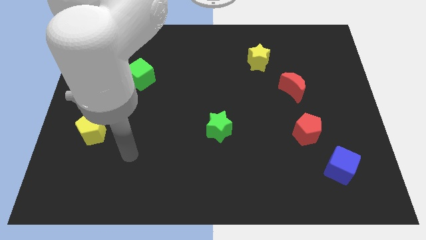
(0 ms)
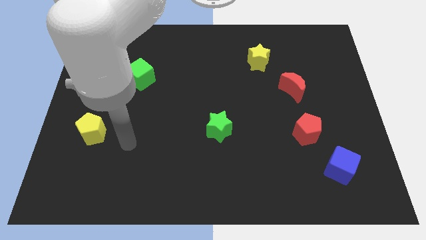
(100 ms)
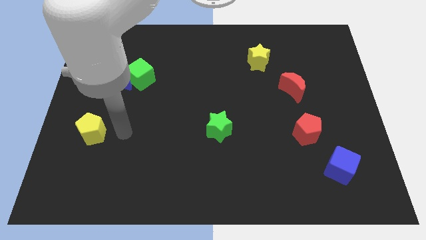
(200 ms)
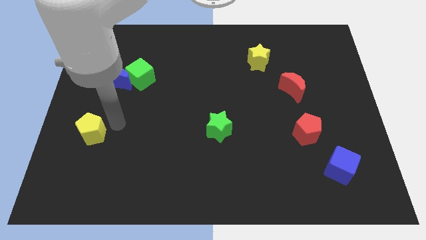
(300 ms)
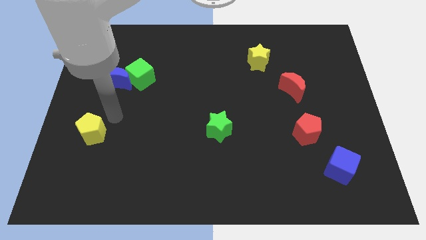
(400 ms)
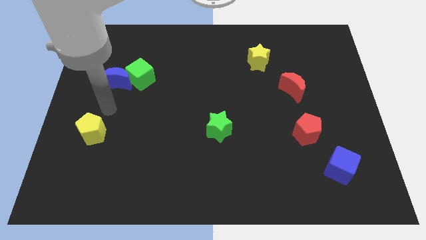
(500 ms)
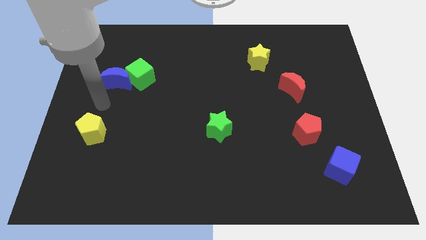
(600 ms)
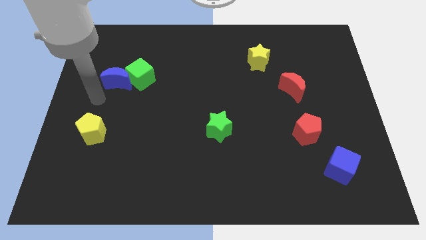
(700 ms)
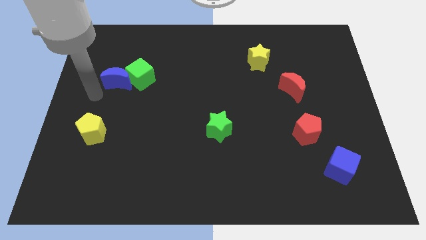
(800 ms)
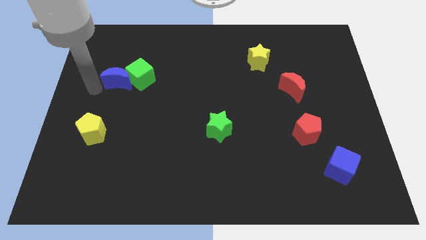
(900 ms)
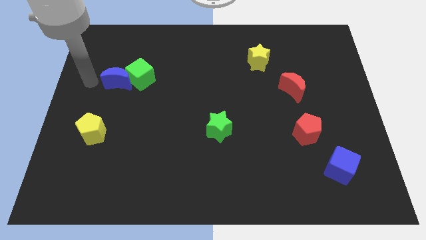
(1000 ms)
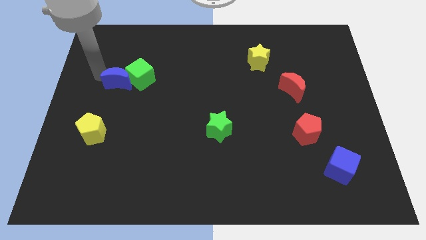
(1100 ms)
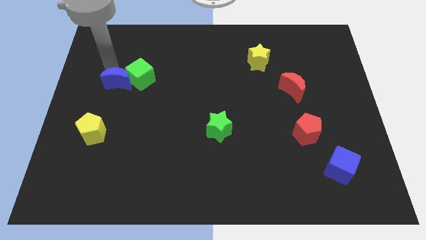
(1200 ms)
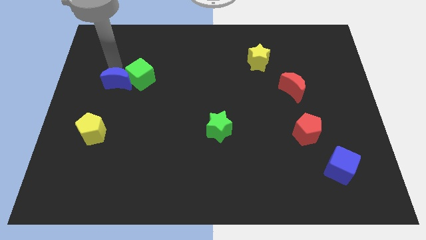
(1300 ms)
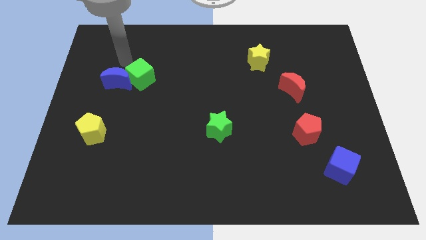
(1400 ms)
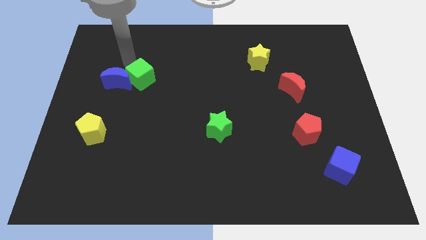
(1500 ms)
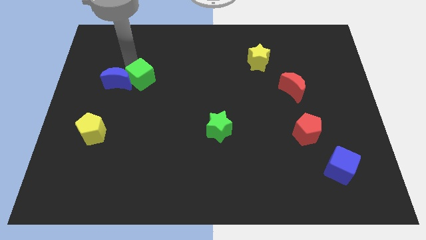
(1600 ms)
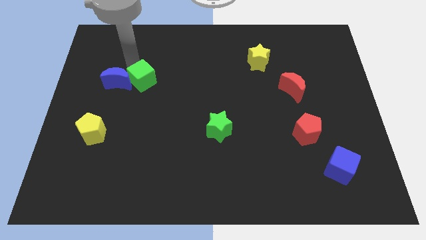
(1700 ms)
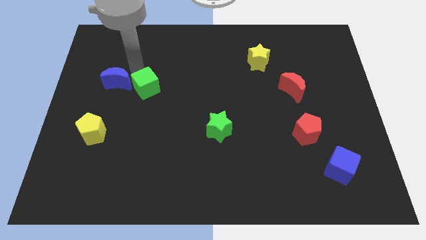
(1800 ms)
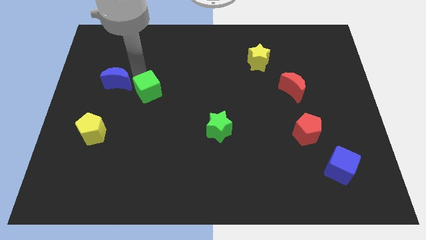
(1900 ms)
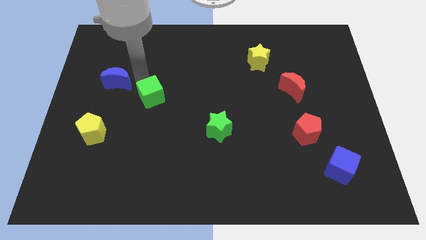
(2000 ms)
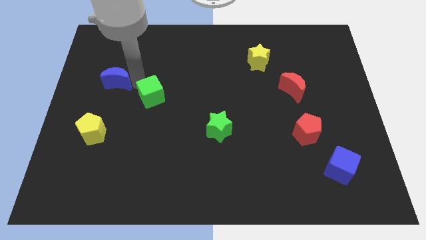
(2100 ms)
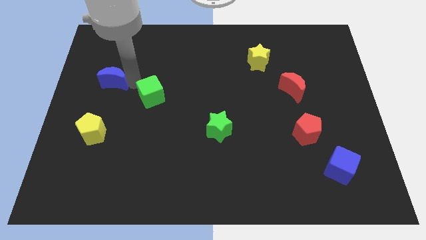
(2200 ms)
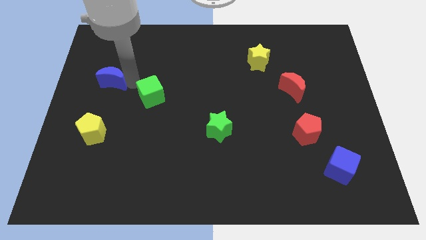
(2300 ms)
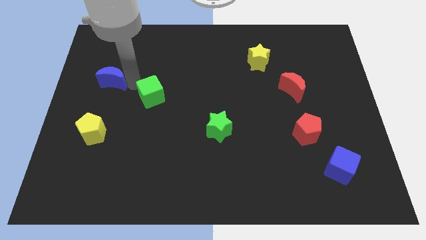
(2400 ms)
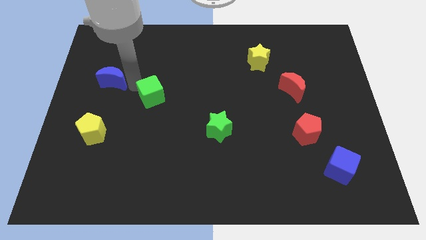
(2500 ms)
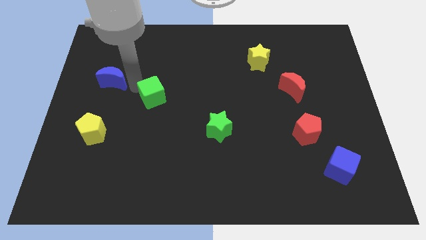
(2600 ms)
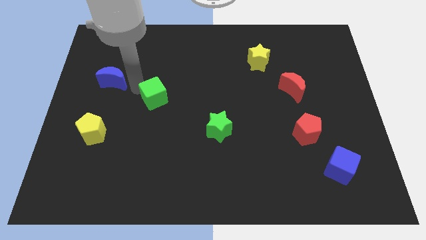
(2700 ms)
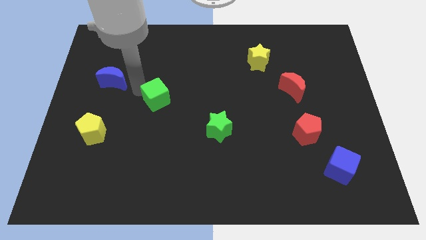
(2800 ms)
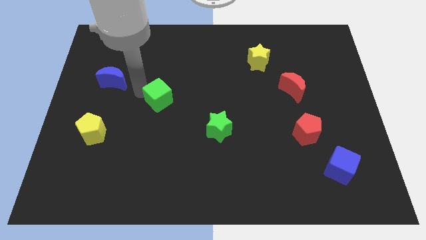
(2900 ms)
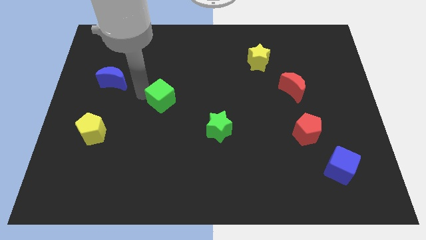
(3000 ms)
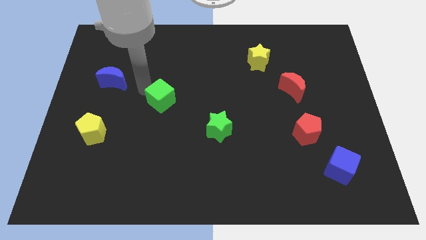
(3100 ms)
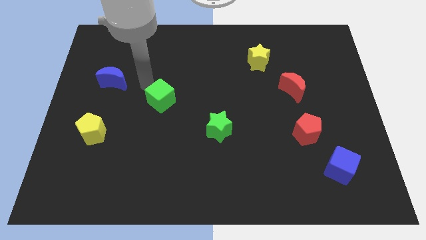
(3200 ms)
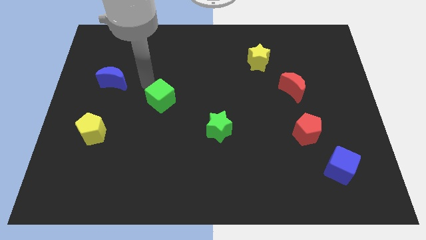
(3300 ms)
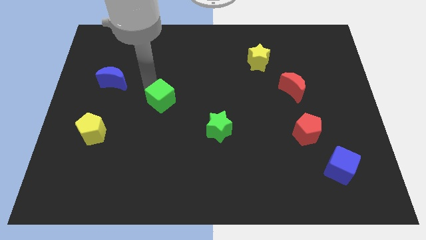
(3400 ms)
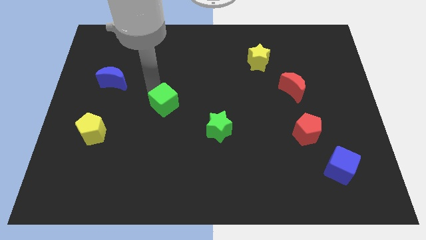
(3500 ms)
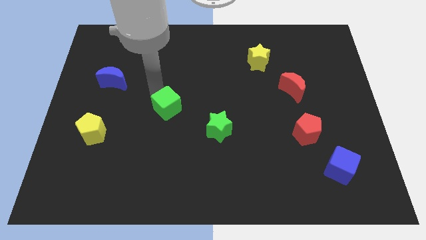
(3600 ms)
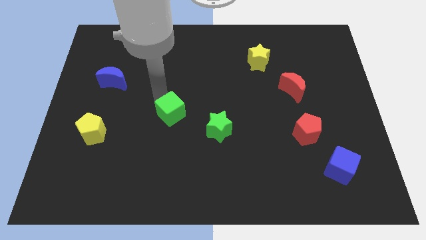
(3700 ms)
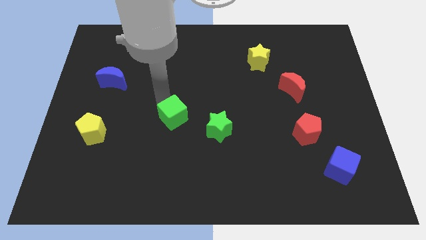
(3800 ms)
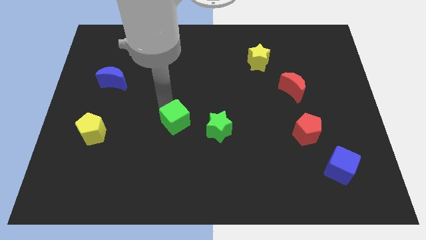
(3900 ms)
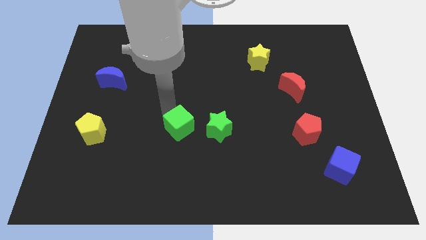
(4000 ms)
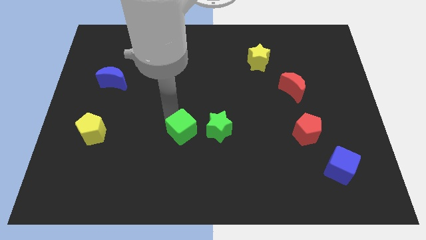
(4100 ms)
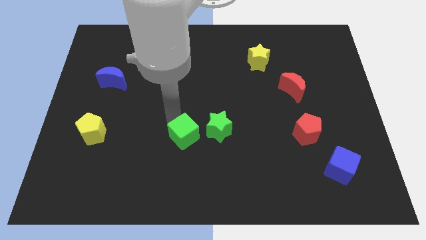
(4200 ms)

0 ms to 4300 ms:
slide the green cube diagonally down and right

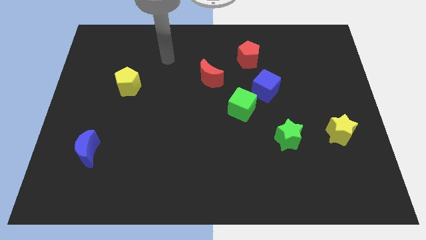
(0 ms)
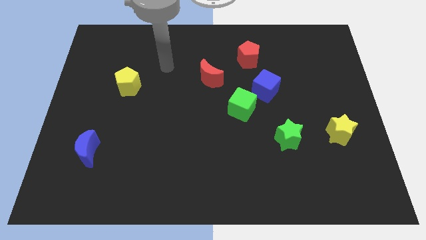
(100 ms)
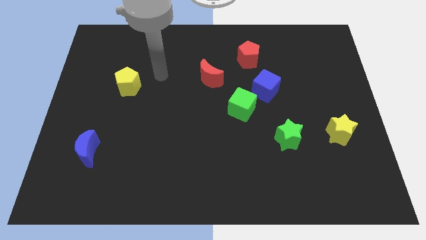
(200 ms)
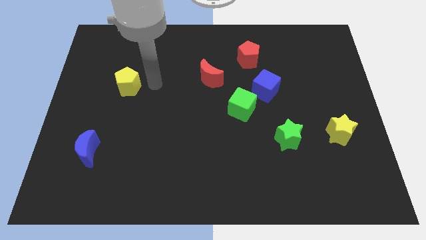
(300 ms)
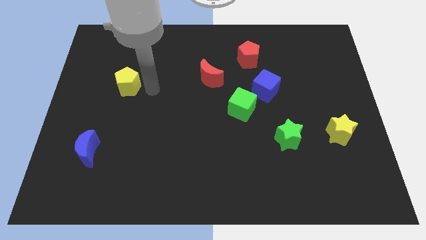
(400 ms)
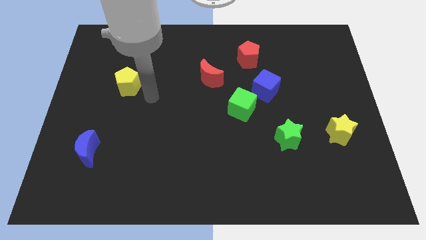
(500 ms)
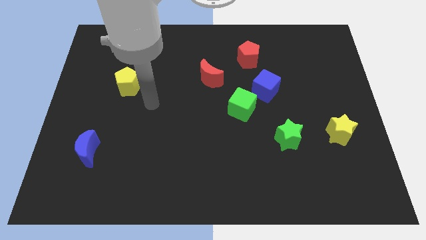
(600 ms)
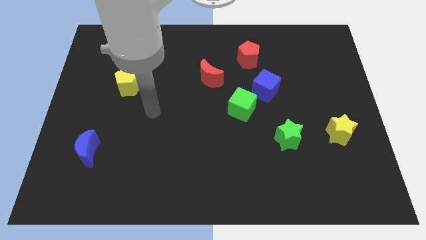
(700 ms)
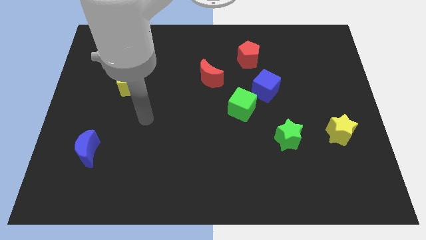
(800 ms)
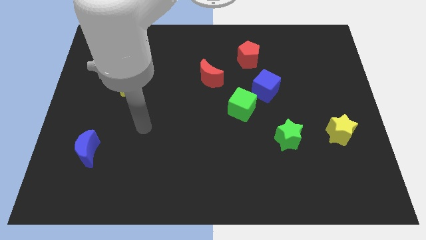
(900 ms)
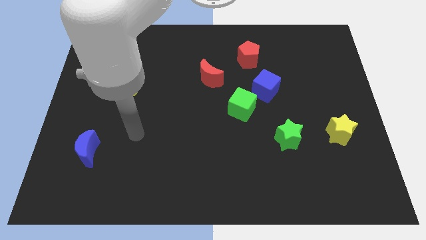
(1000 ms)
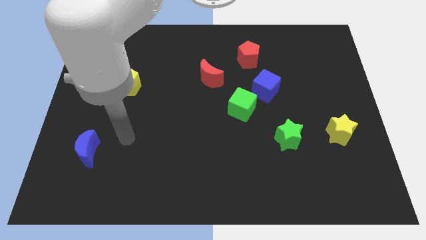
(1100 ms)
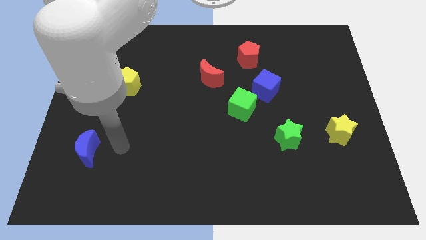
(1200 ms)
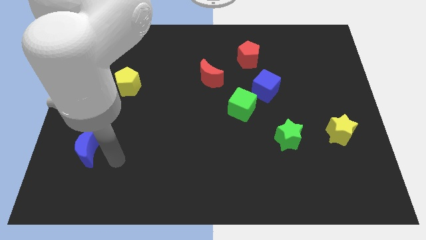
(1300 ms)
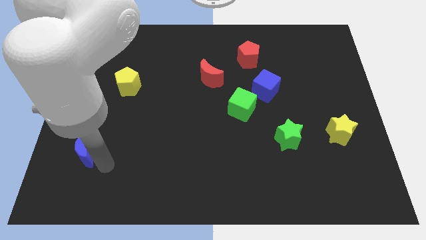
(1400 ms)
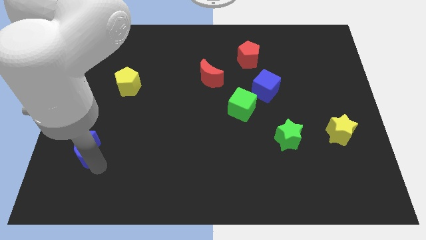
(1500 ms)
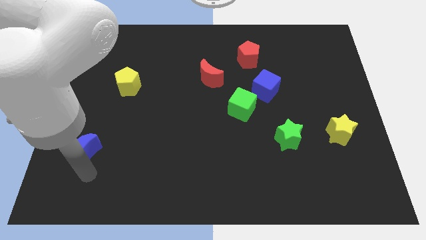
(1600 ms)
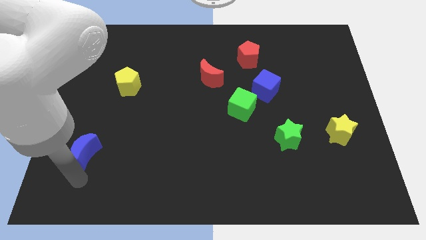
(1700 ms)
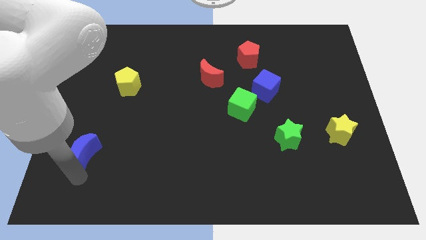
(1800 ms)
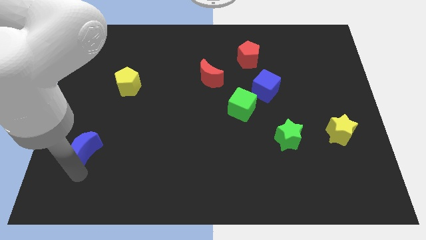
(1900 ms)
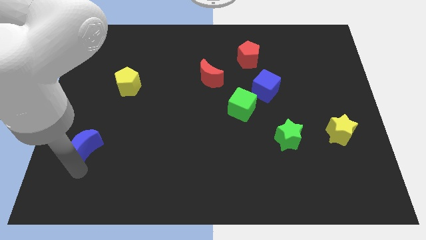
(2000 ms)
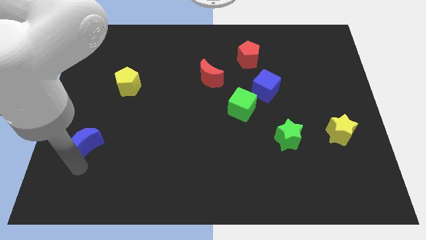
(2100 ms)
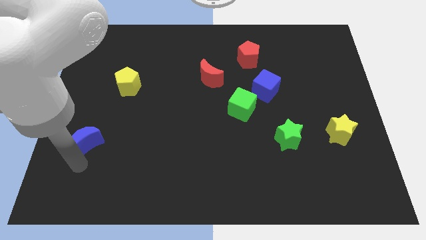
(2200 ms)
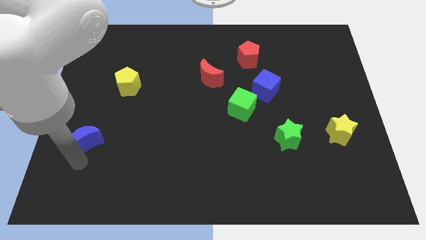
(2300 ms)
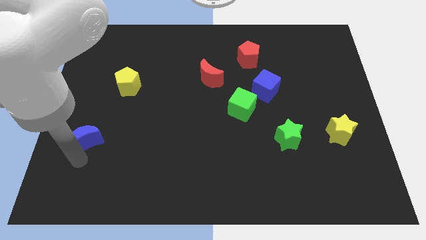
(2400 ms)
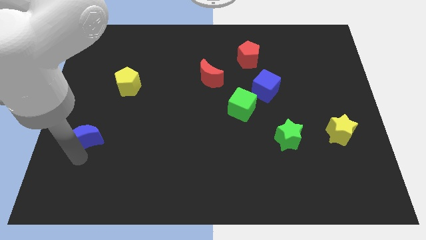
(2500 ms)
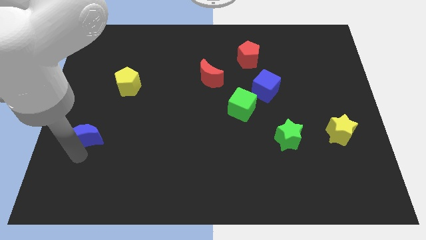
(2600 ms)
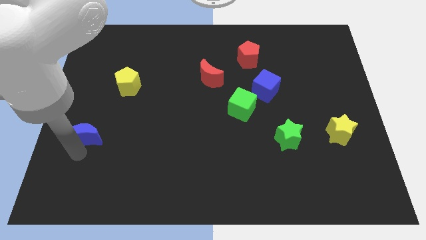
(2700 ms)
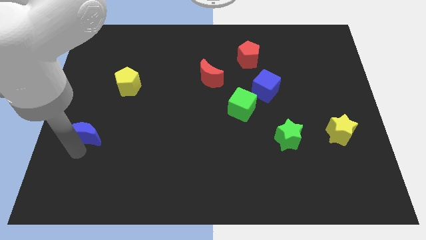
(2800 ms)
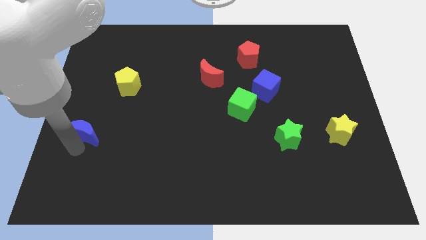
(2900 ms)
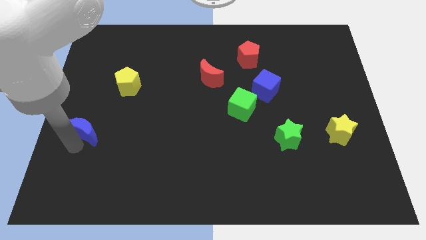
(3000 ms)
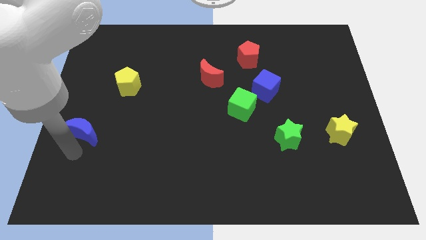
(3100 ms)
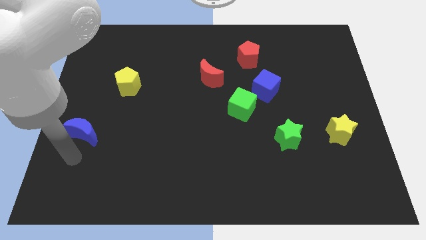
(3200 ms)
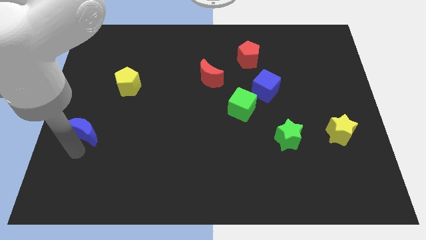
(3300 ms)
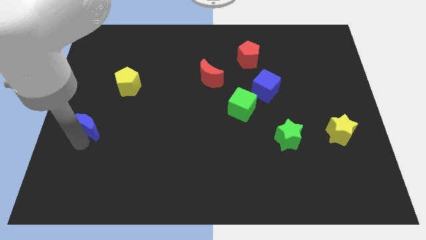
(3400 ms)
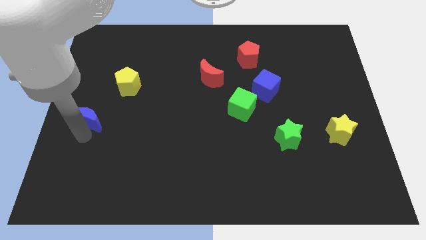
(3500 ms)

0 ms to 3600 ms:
slightly slide the blue moon upwards

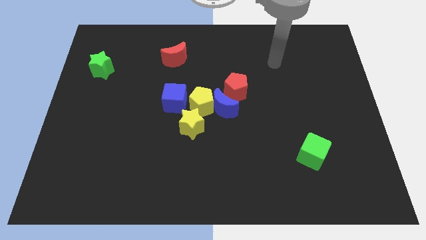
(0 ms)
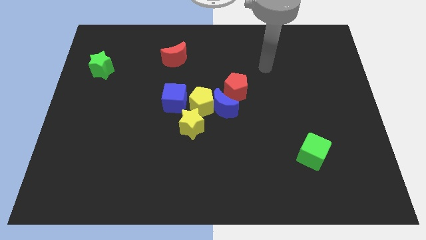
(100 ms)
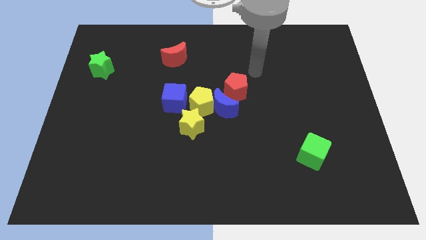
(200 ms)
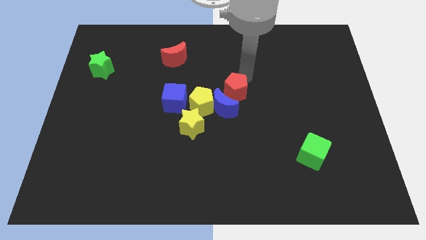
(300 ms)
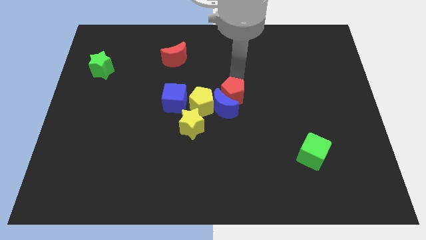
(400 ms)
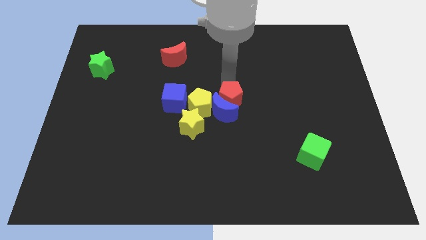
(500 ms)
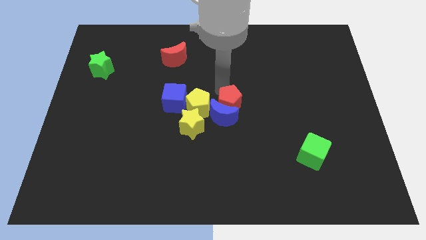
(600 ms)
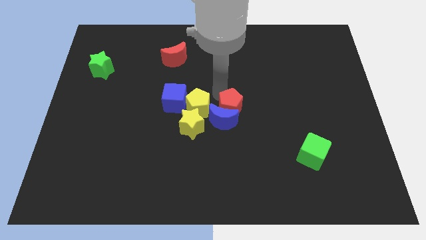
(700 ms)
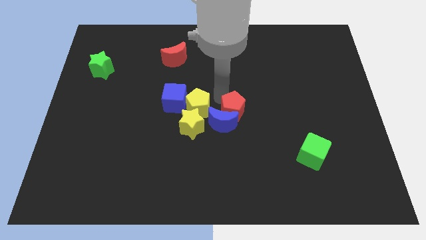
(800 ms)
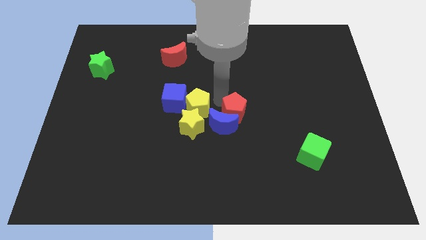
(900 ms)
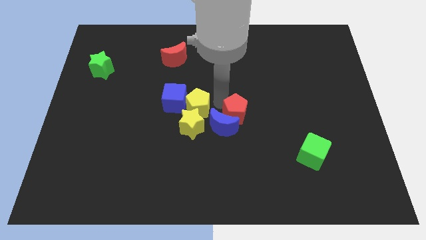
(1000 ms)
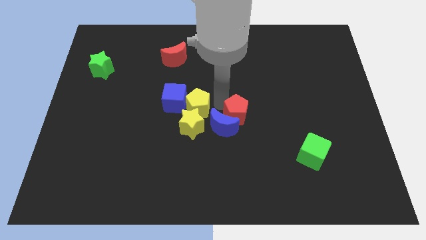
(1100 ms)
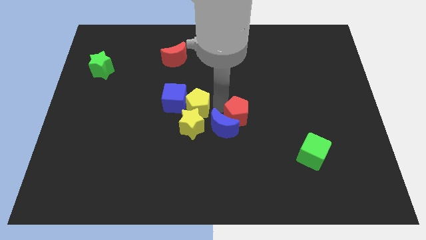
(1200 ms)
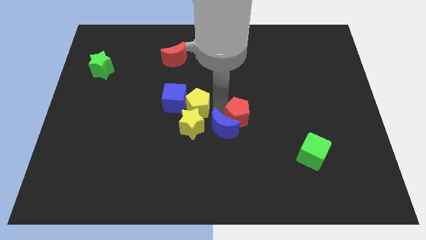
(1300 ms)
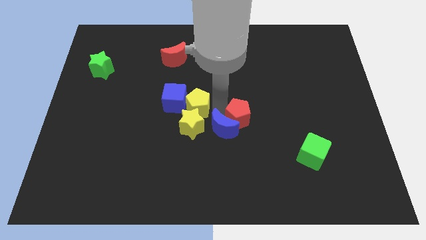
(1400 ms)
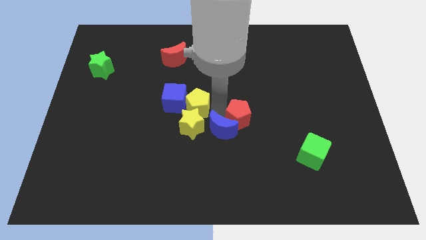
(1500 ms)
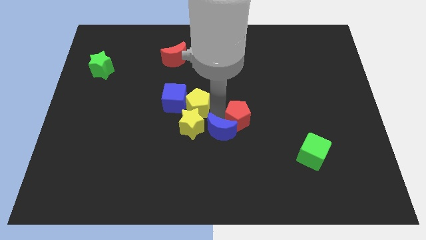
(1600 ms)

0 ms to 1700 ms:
move the blue moon a little downwards
